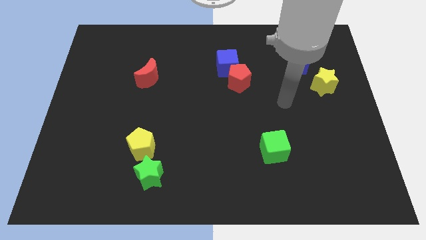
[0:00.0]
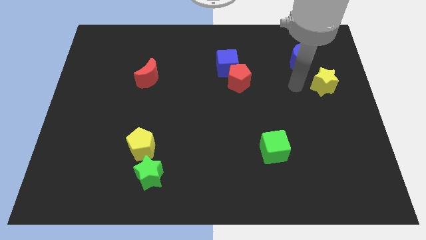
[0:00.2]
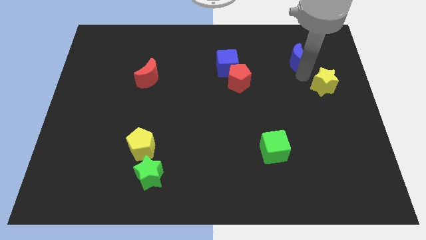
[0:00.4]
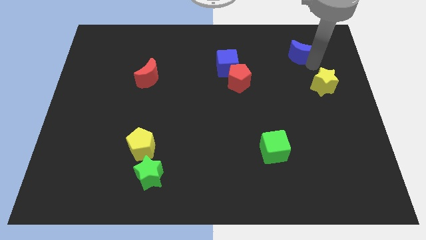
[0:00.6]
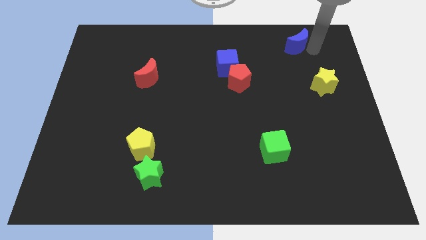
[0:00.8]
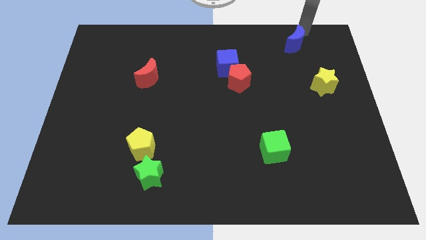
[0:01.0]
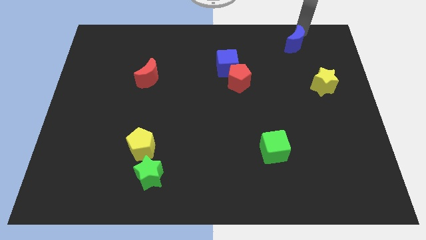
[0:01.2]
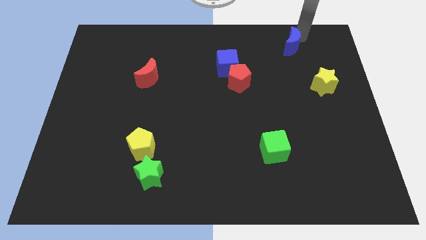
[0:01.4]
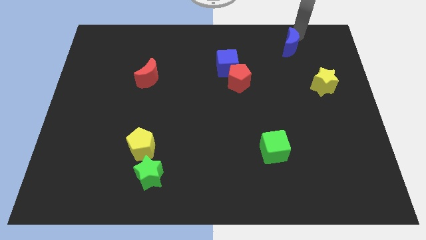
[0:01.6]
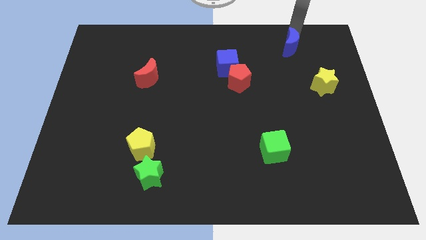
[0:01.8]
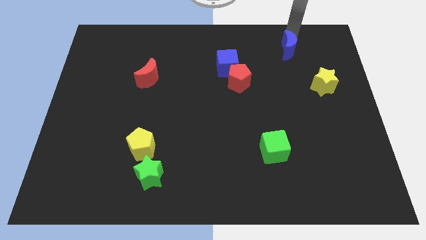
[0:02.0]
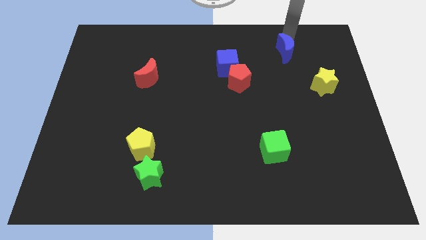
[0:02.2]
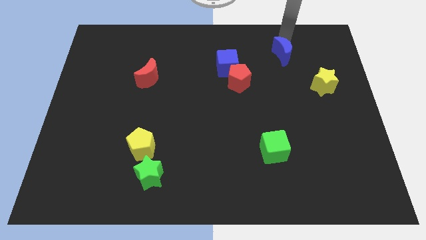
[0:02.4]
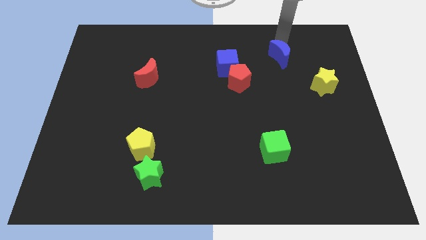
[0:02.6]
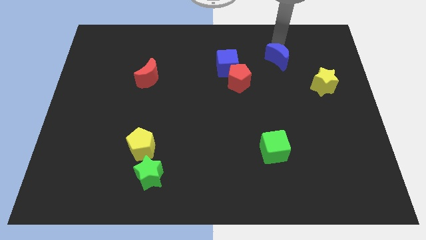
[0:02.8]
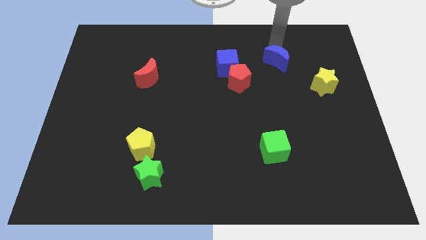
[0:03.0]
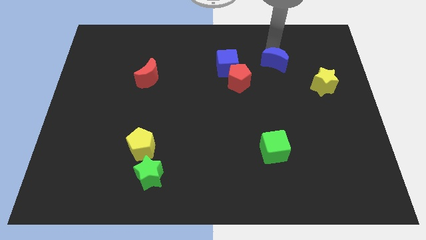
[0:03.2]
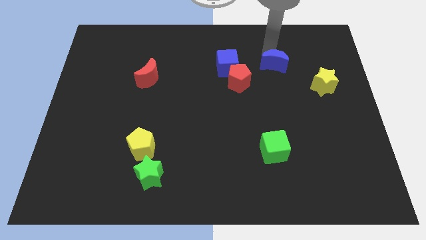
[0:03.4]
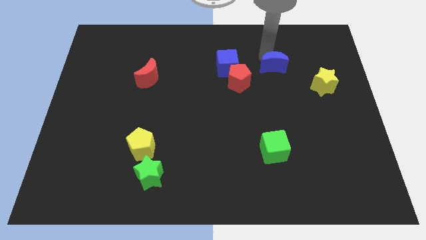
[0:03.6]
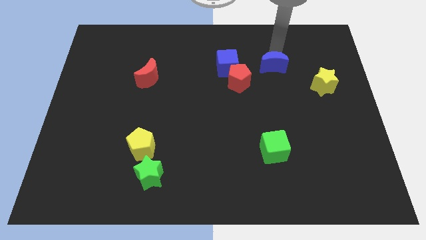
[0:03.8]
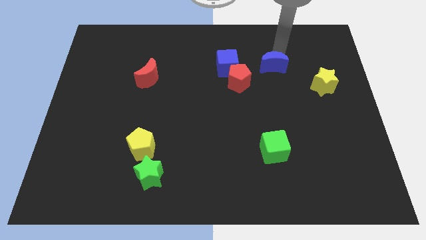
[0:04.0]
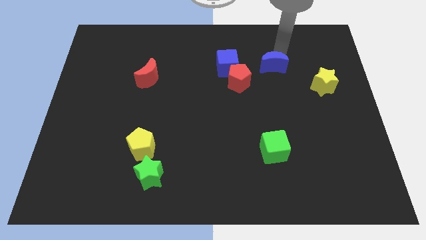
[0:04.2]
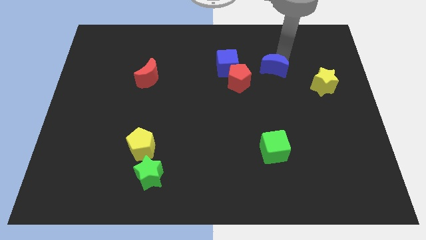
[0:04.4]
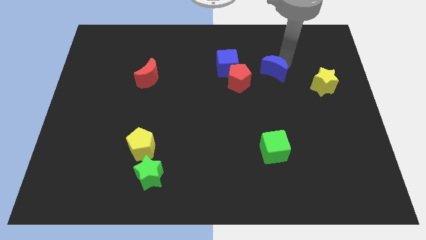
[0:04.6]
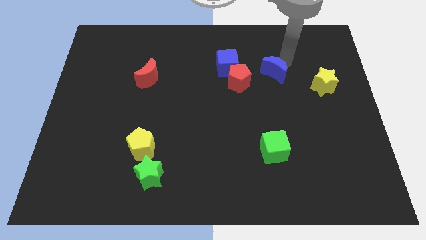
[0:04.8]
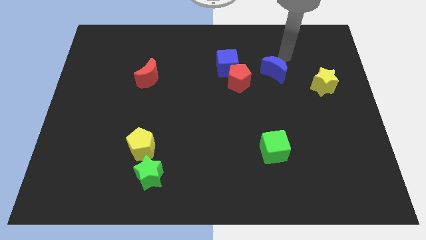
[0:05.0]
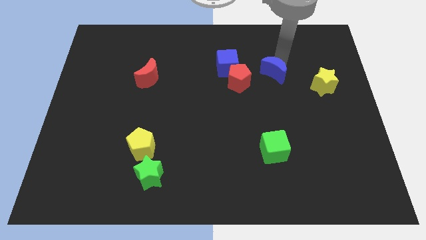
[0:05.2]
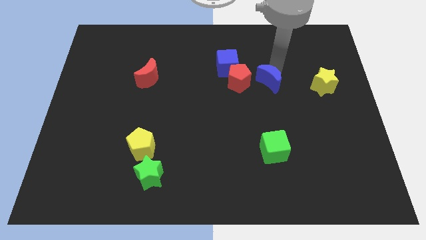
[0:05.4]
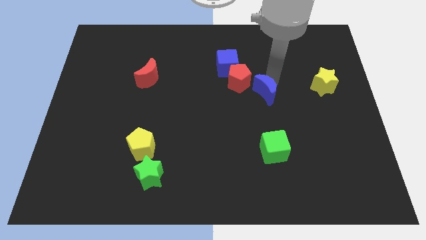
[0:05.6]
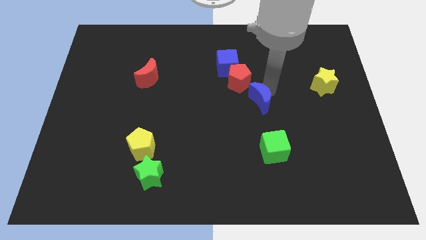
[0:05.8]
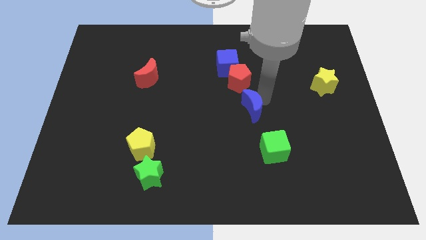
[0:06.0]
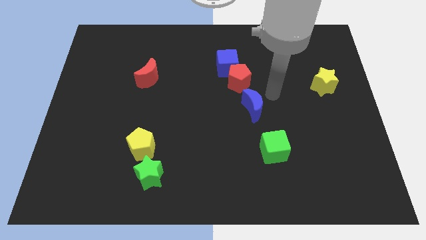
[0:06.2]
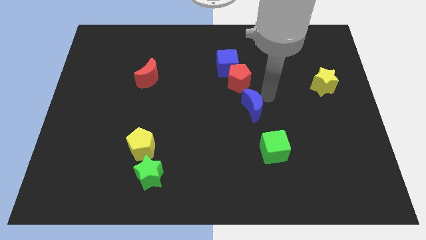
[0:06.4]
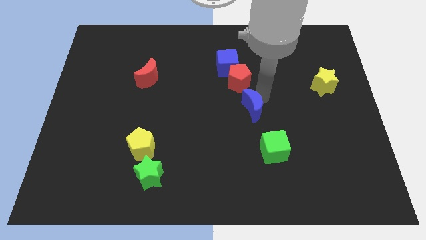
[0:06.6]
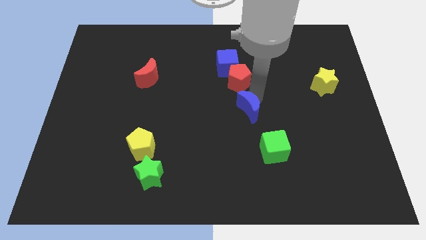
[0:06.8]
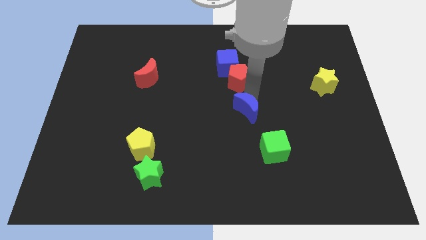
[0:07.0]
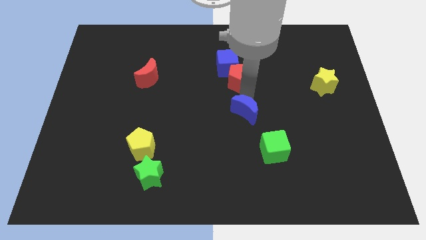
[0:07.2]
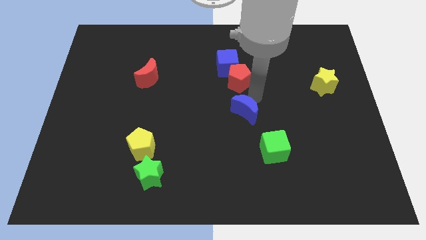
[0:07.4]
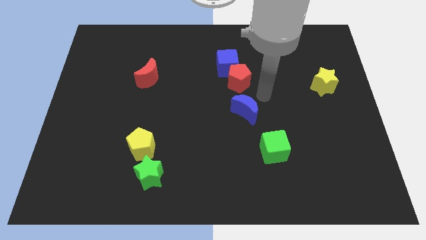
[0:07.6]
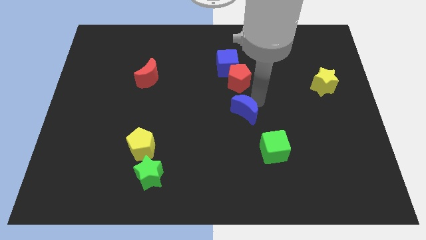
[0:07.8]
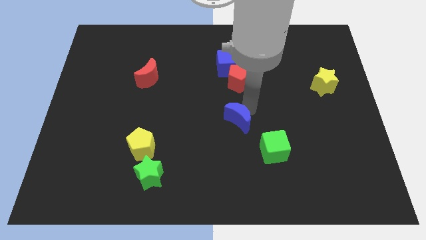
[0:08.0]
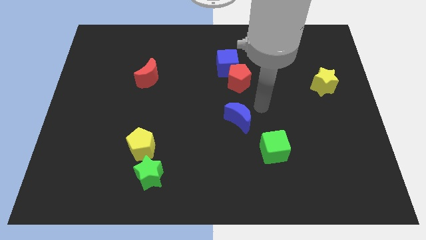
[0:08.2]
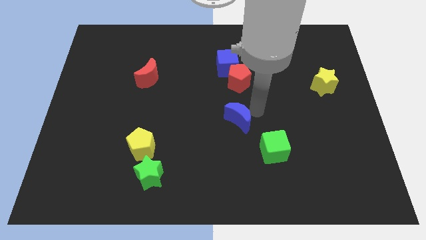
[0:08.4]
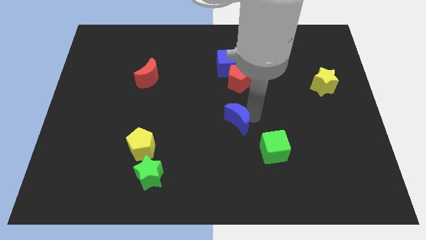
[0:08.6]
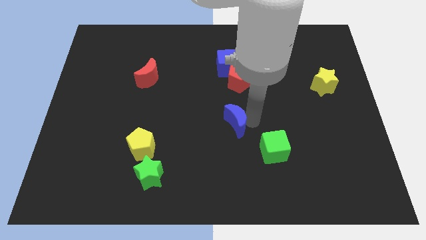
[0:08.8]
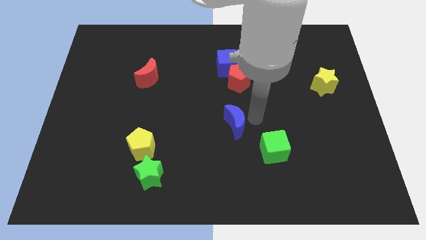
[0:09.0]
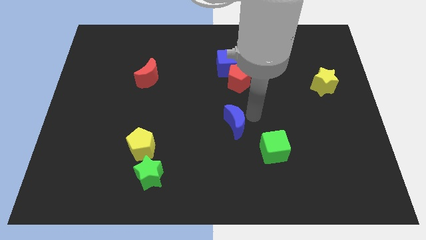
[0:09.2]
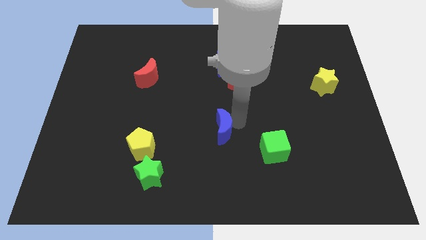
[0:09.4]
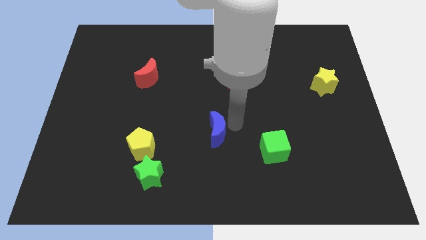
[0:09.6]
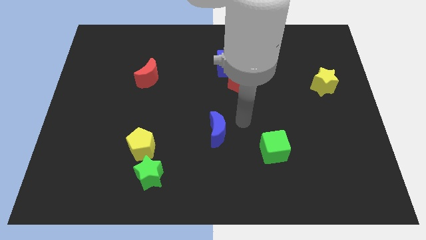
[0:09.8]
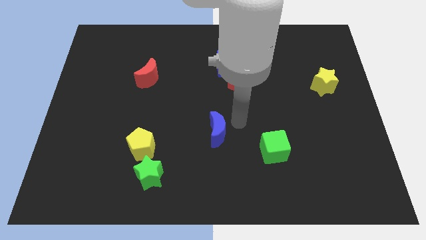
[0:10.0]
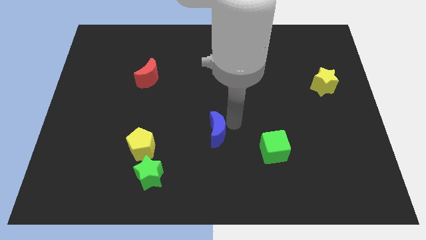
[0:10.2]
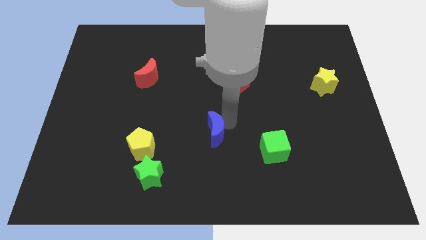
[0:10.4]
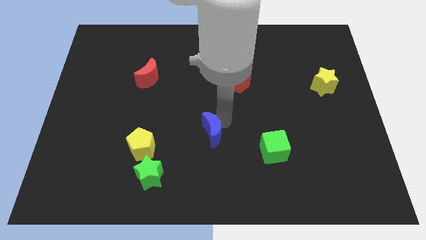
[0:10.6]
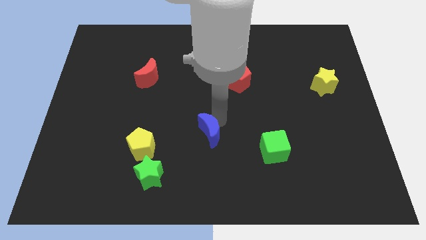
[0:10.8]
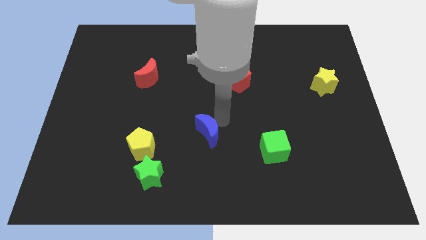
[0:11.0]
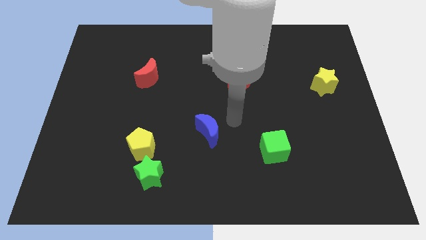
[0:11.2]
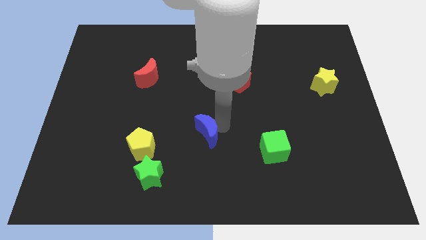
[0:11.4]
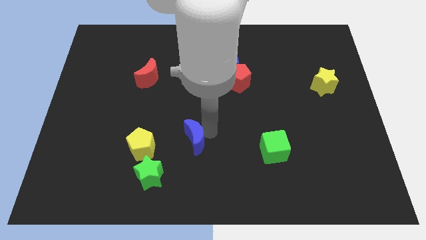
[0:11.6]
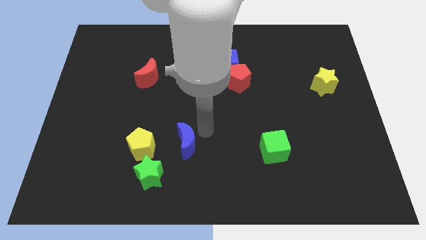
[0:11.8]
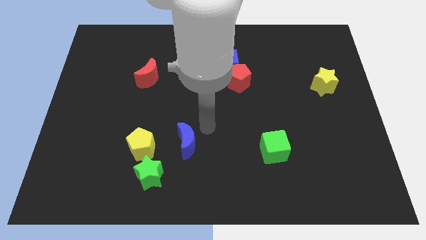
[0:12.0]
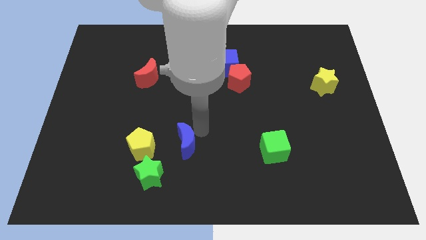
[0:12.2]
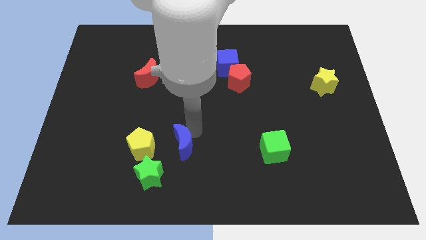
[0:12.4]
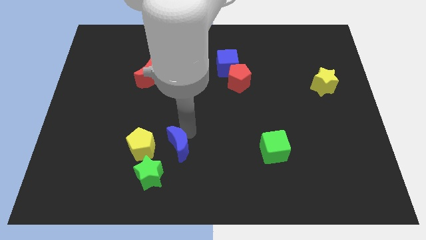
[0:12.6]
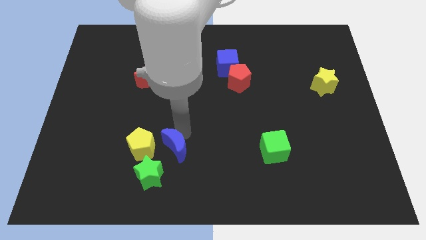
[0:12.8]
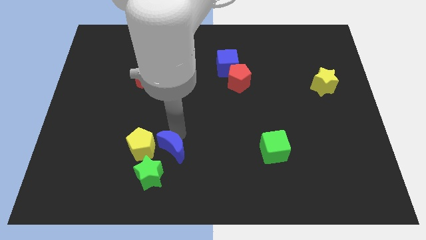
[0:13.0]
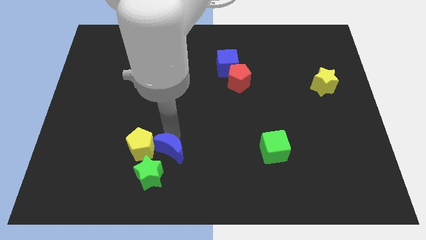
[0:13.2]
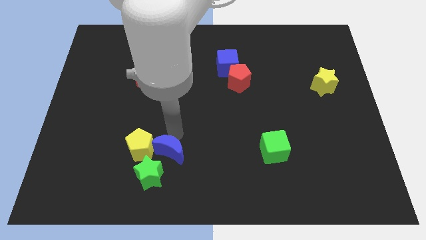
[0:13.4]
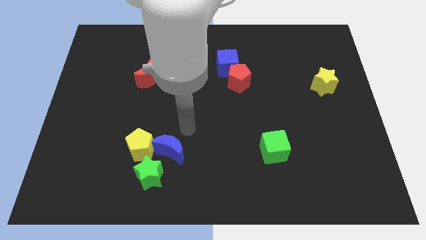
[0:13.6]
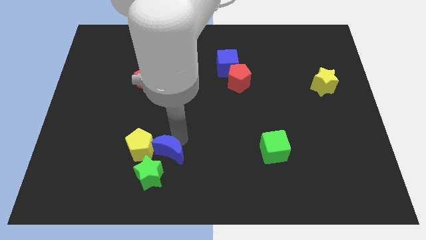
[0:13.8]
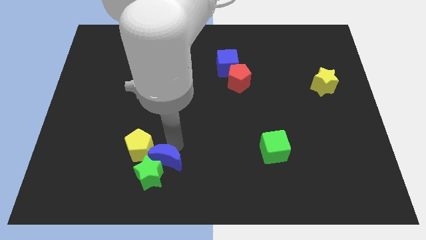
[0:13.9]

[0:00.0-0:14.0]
put the blue moon towards the green star

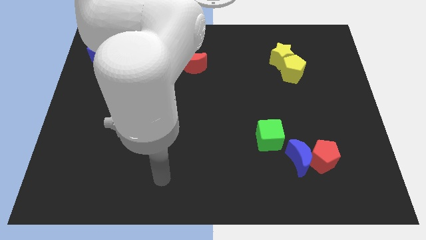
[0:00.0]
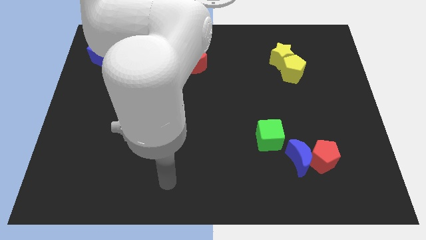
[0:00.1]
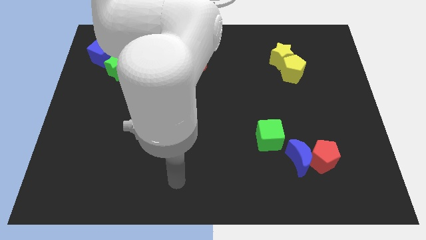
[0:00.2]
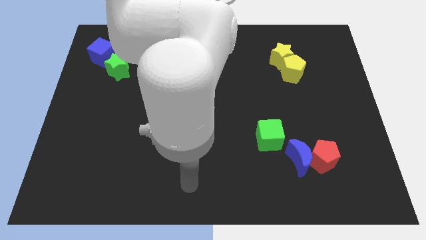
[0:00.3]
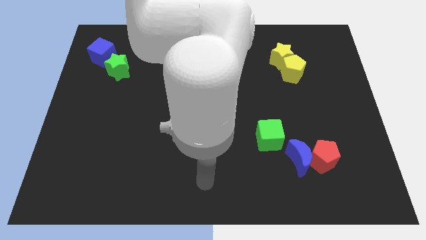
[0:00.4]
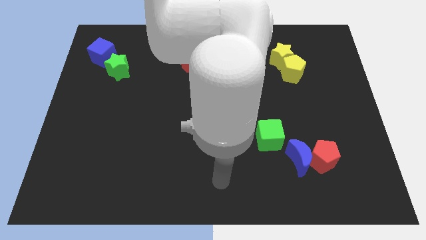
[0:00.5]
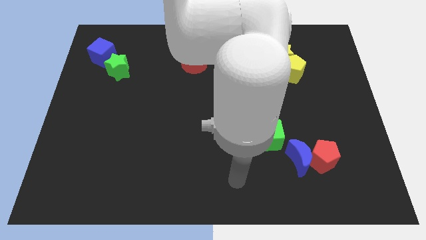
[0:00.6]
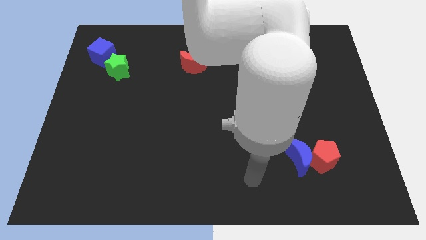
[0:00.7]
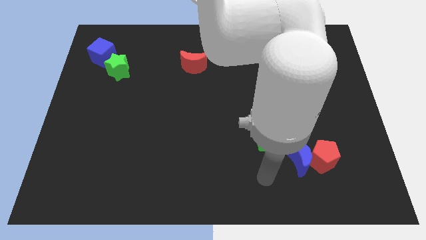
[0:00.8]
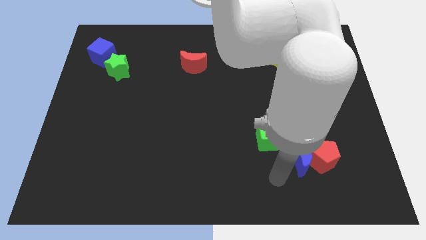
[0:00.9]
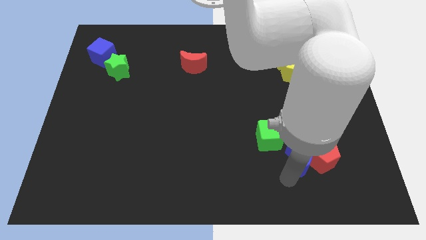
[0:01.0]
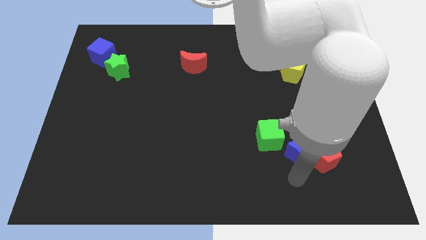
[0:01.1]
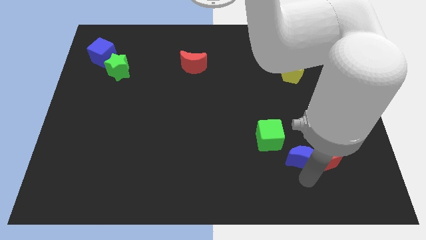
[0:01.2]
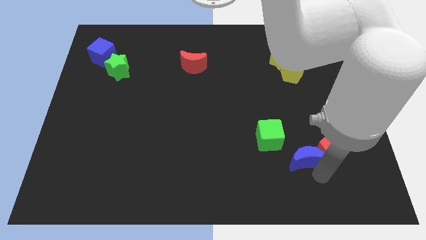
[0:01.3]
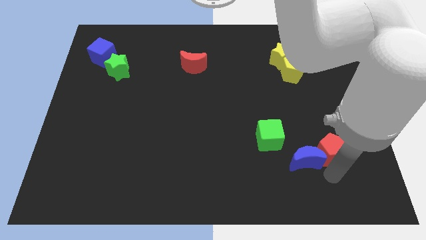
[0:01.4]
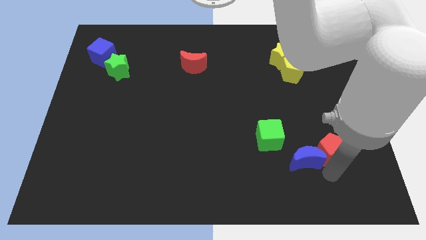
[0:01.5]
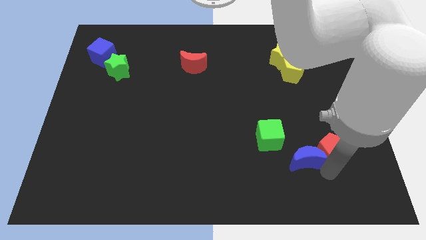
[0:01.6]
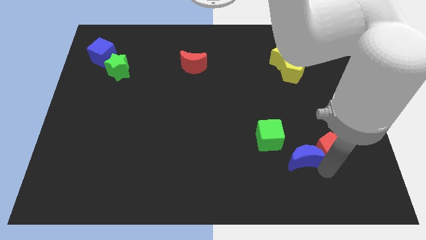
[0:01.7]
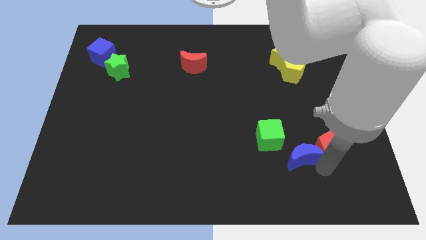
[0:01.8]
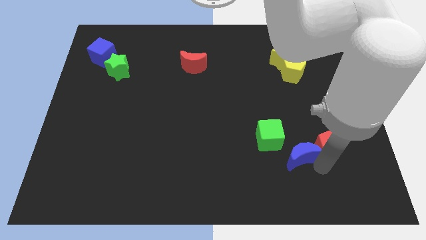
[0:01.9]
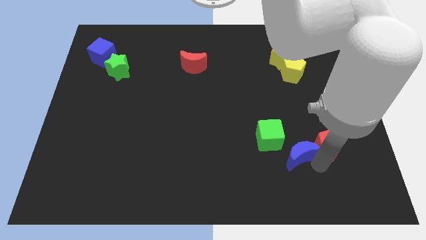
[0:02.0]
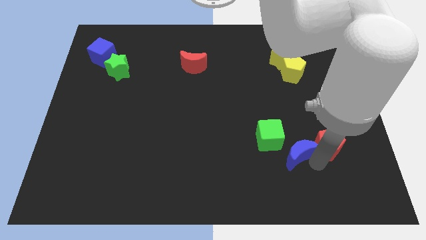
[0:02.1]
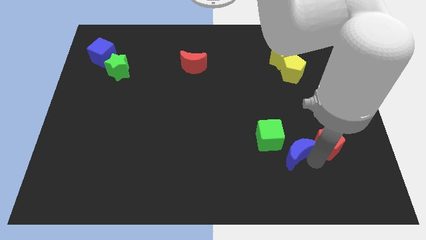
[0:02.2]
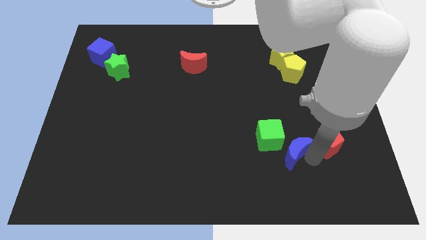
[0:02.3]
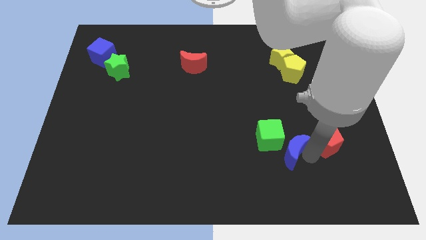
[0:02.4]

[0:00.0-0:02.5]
push the blue moon next to the green cube
